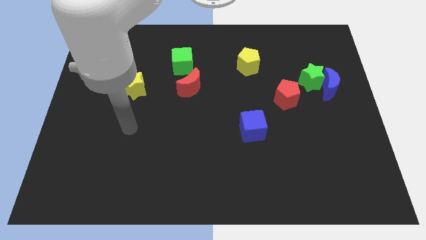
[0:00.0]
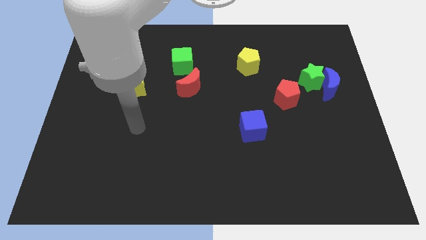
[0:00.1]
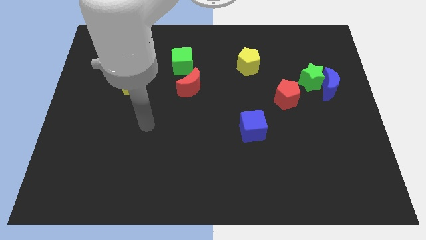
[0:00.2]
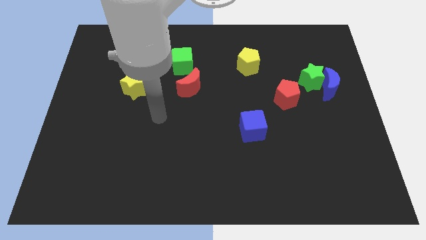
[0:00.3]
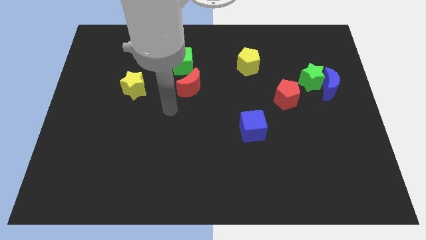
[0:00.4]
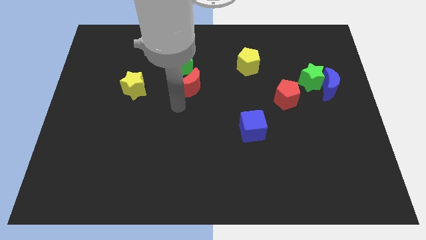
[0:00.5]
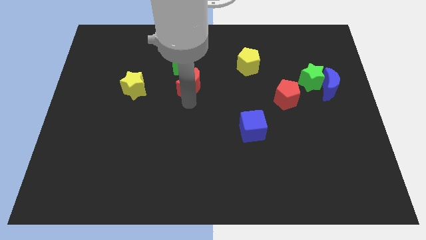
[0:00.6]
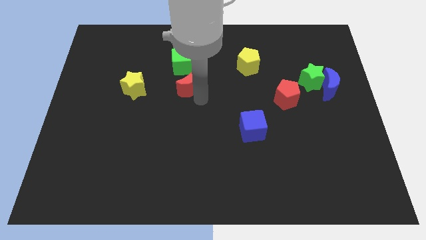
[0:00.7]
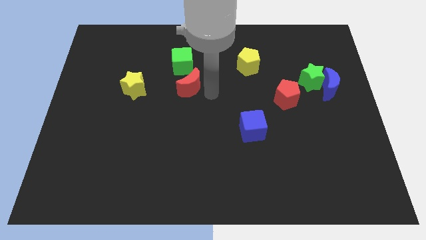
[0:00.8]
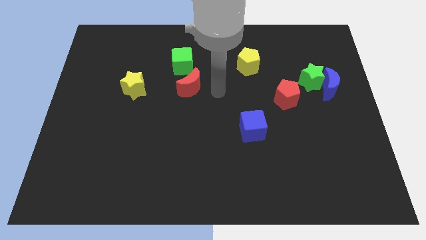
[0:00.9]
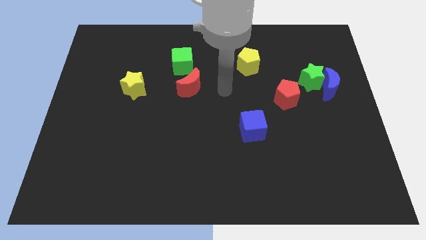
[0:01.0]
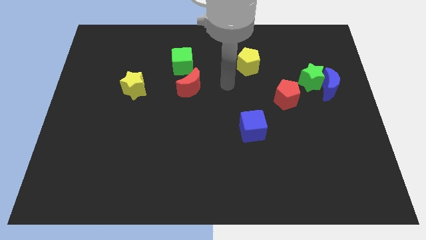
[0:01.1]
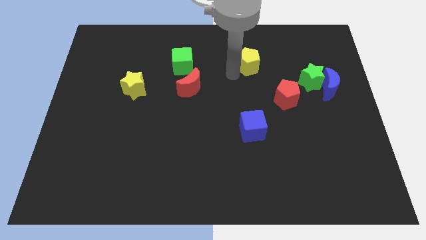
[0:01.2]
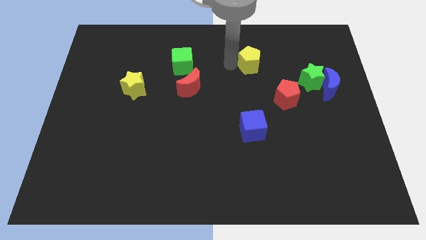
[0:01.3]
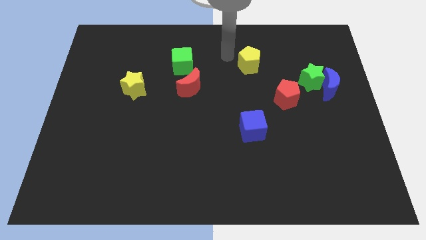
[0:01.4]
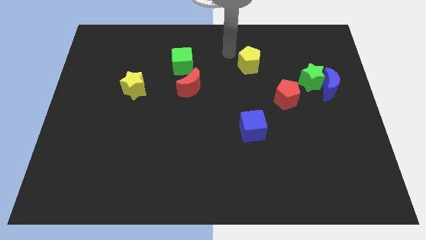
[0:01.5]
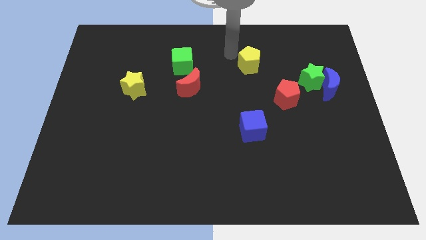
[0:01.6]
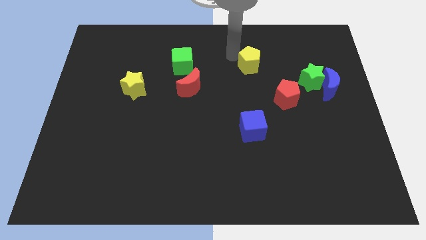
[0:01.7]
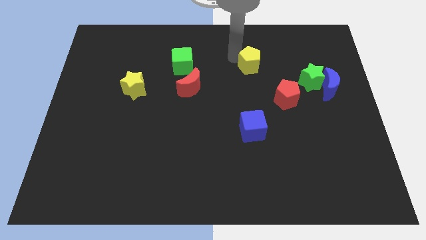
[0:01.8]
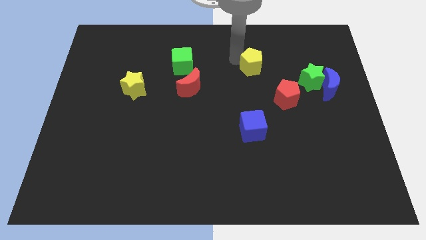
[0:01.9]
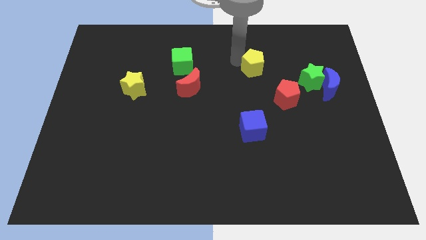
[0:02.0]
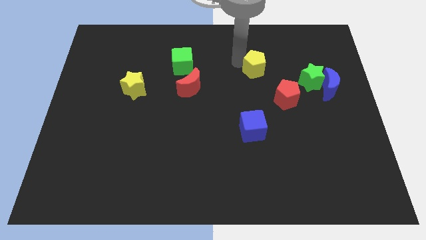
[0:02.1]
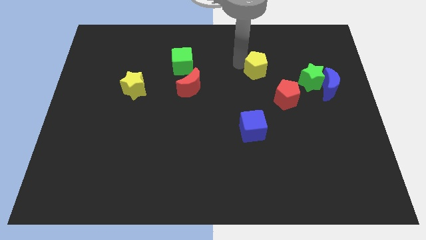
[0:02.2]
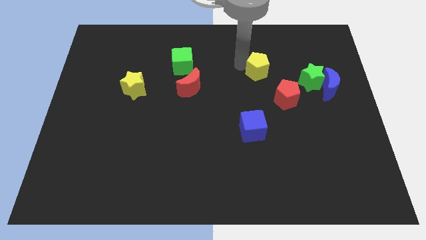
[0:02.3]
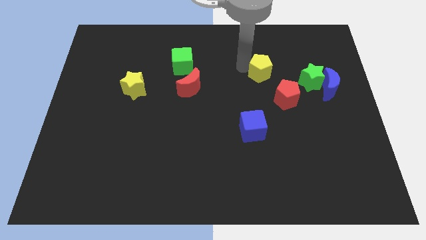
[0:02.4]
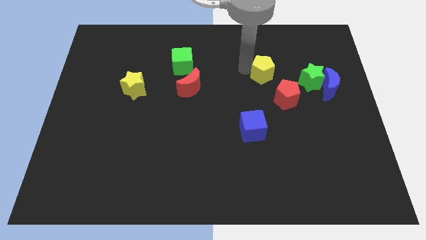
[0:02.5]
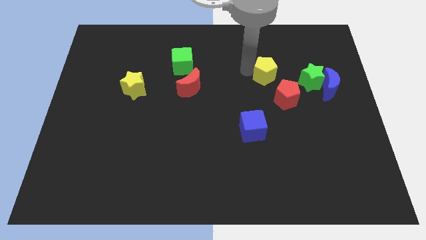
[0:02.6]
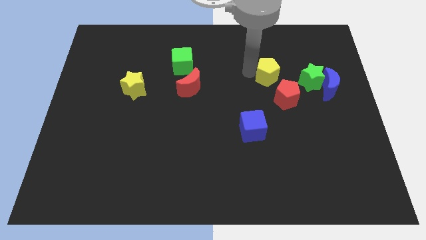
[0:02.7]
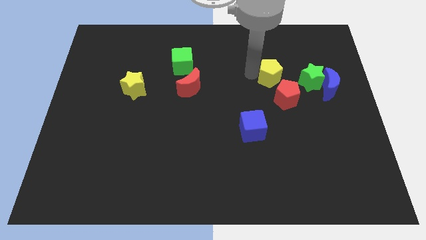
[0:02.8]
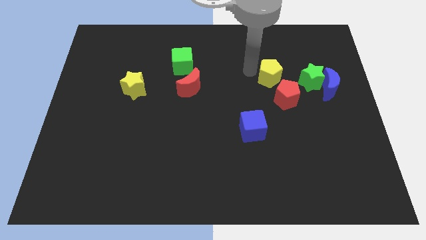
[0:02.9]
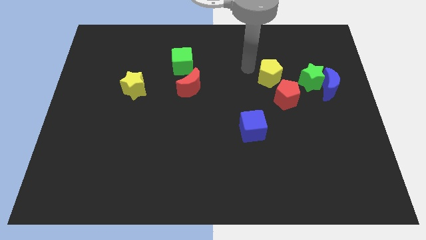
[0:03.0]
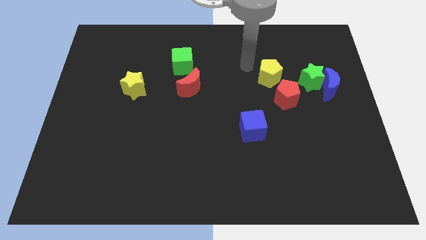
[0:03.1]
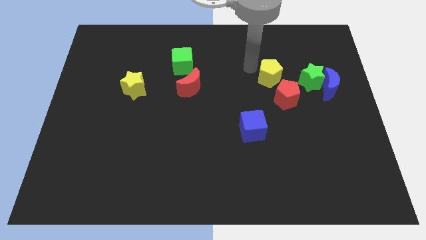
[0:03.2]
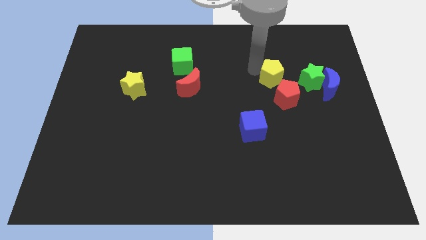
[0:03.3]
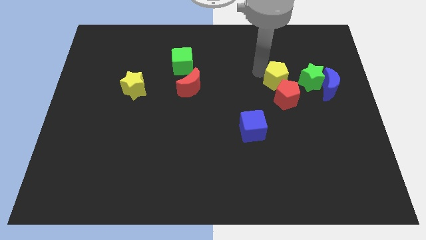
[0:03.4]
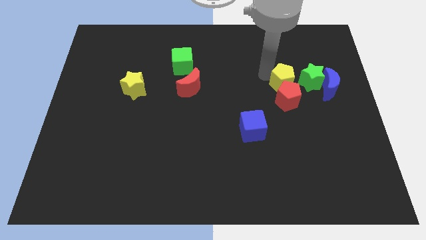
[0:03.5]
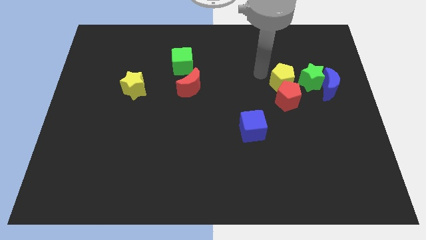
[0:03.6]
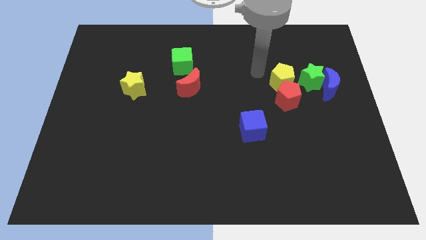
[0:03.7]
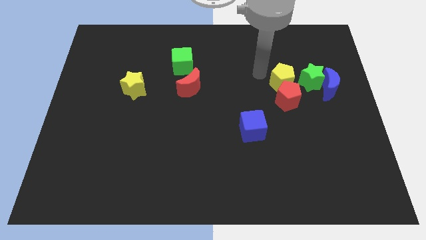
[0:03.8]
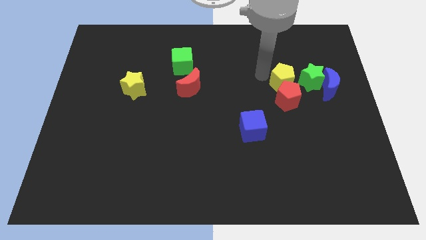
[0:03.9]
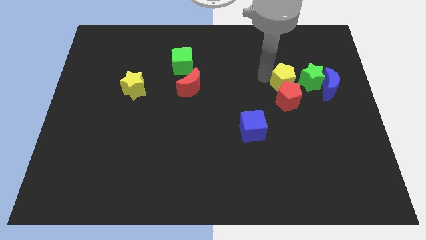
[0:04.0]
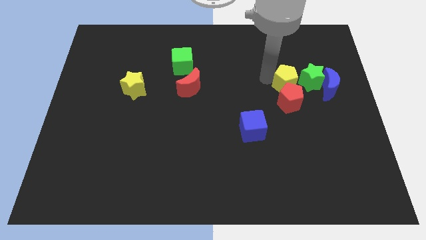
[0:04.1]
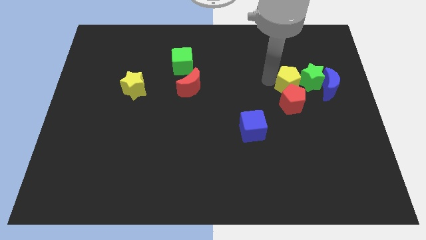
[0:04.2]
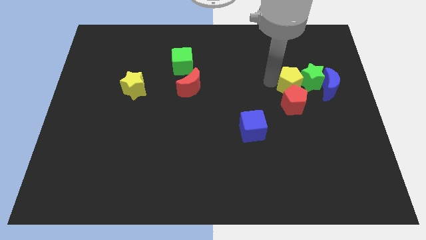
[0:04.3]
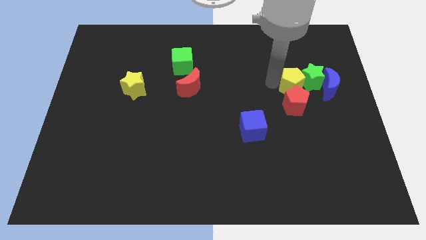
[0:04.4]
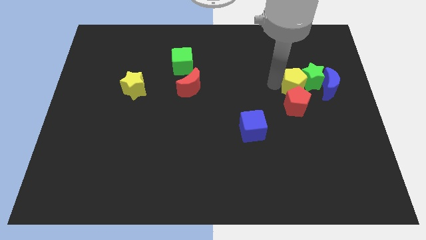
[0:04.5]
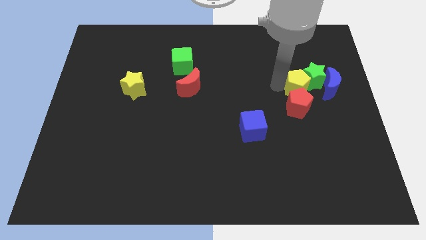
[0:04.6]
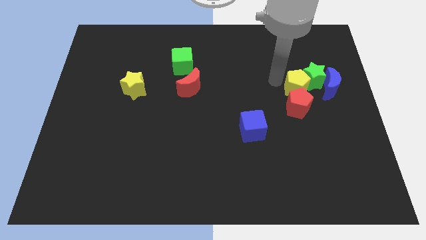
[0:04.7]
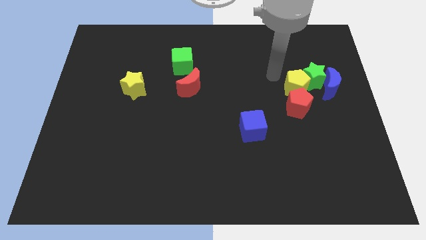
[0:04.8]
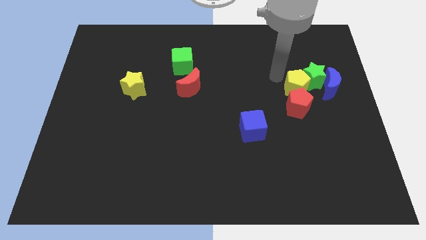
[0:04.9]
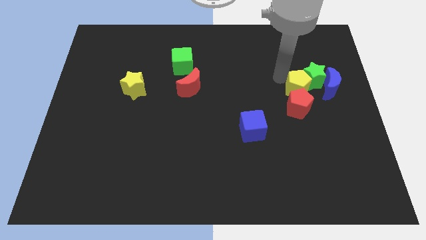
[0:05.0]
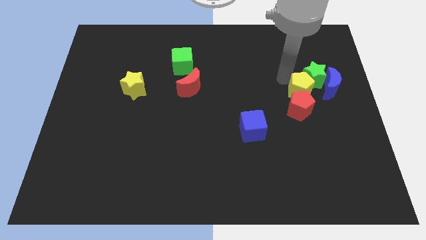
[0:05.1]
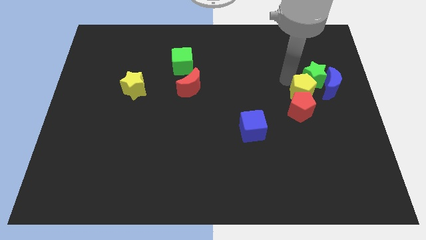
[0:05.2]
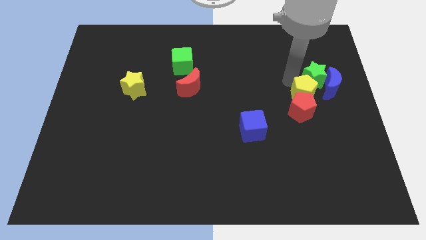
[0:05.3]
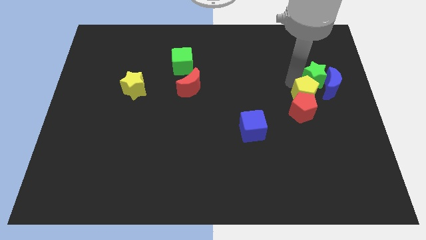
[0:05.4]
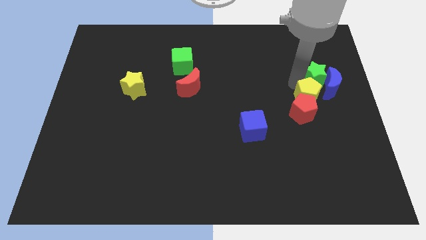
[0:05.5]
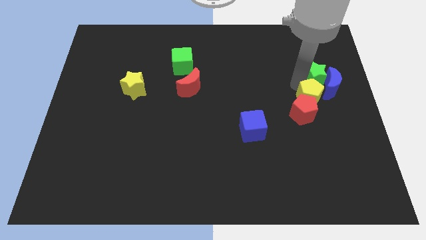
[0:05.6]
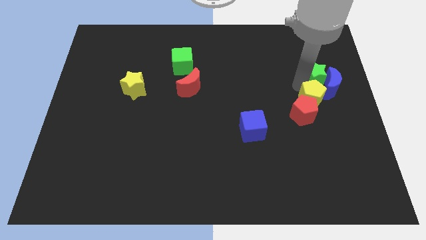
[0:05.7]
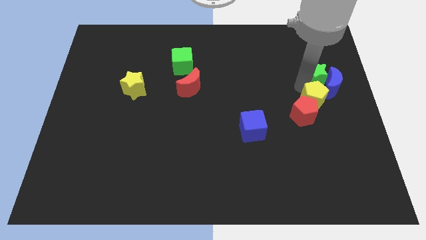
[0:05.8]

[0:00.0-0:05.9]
slide the yellow pentagon right of the red pentagon
